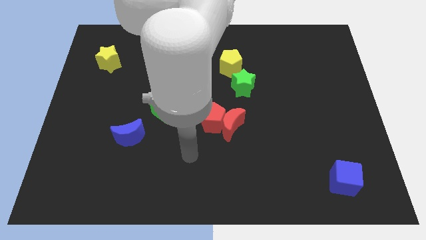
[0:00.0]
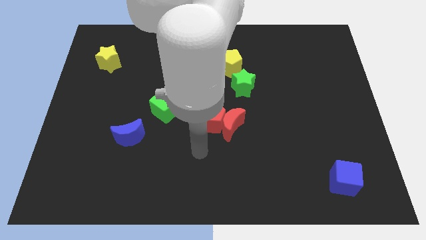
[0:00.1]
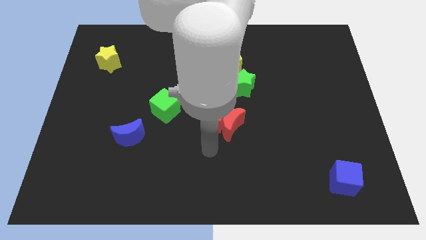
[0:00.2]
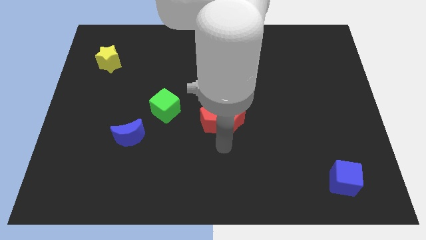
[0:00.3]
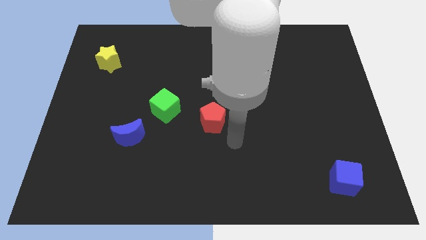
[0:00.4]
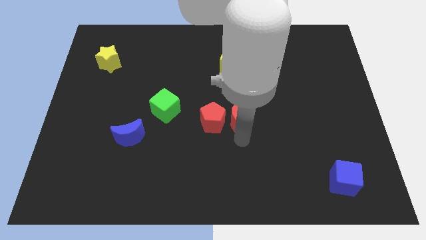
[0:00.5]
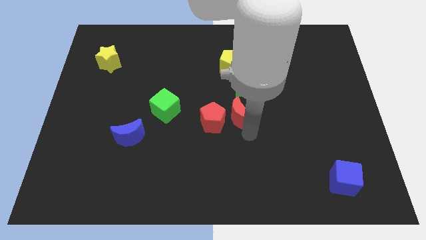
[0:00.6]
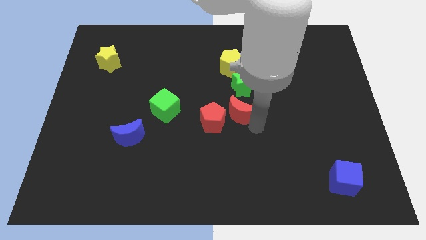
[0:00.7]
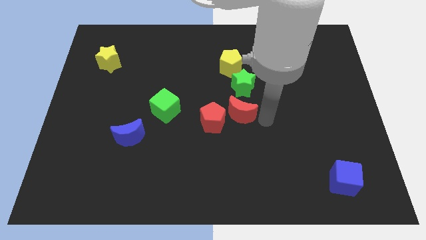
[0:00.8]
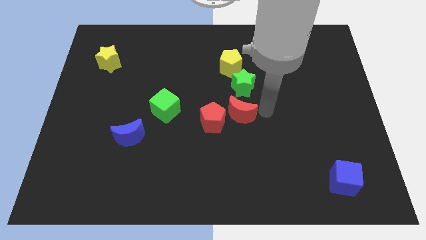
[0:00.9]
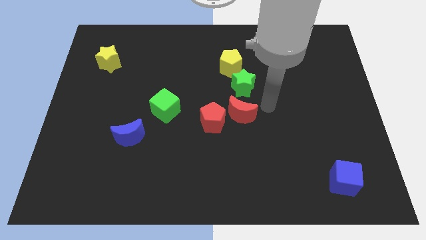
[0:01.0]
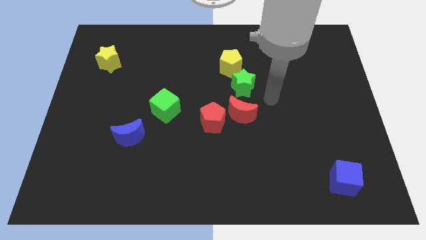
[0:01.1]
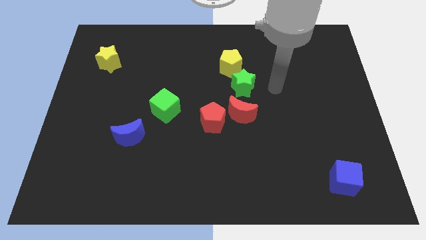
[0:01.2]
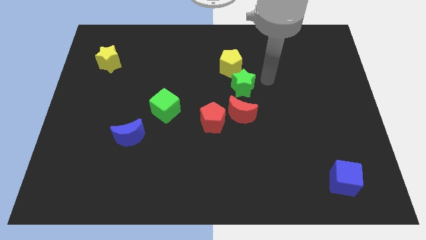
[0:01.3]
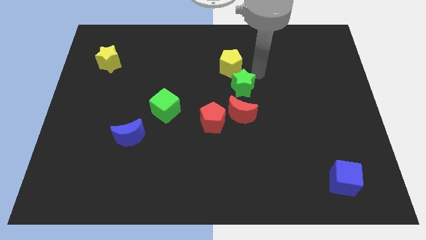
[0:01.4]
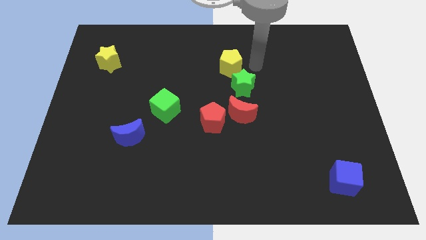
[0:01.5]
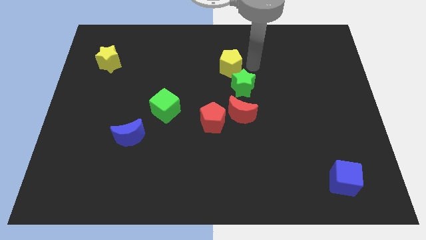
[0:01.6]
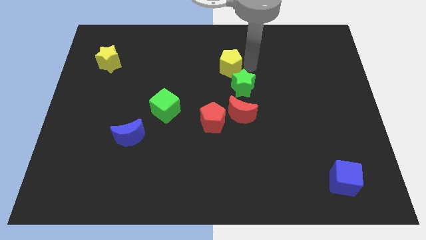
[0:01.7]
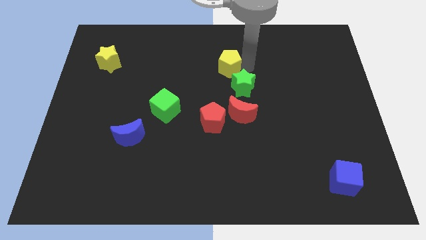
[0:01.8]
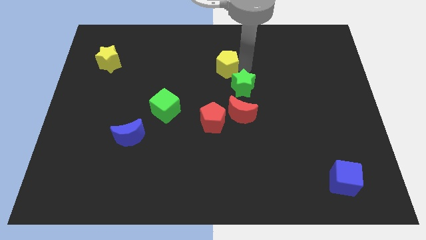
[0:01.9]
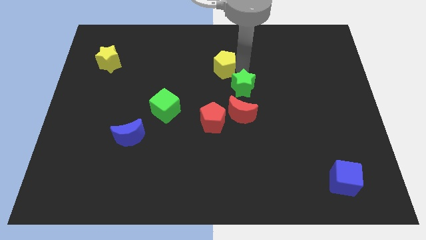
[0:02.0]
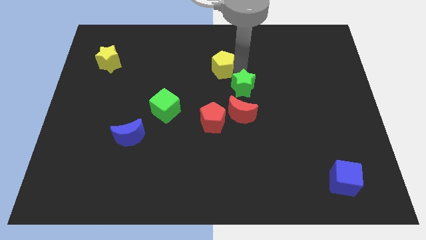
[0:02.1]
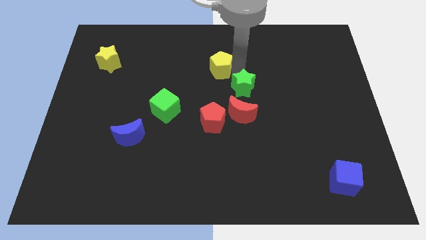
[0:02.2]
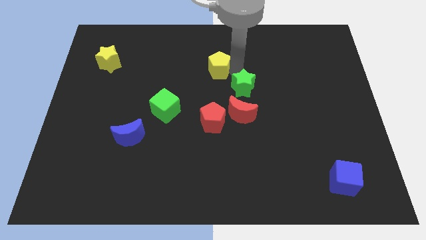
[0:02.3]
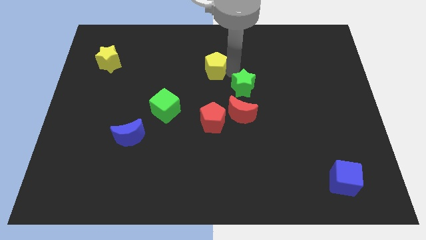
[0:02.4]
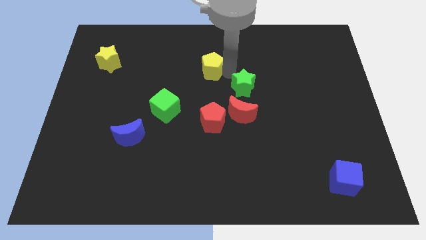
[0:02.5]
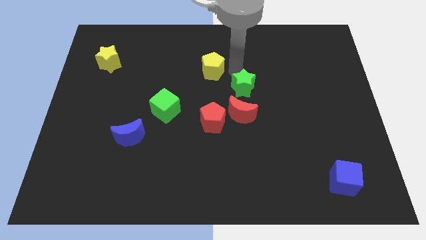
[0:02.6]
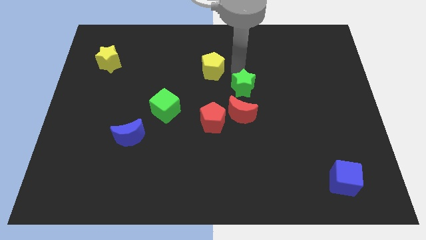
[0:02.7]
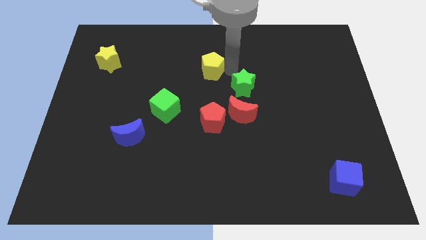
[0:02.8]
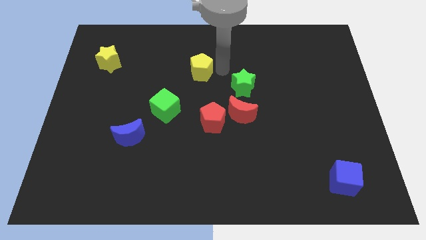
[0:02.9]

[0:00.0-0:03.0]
move the yellow pentagon to the left a little

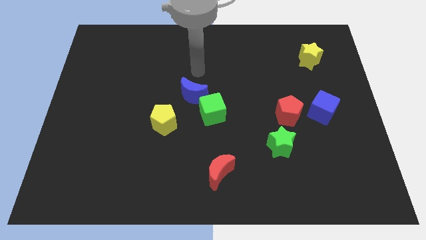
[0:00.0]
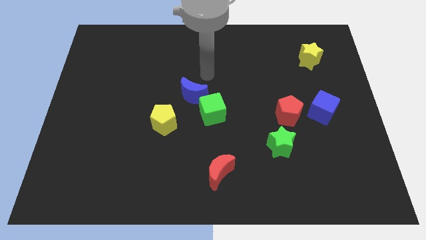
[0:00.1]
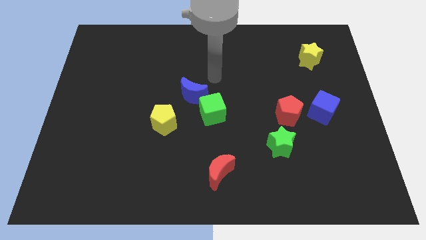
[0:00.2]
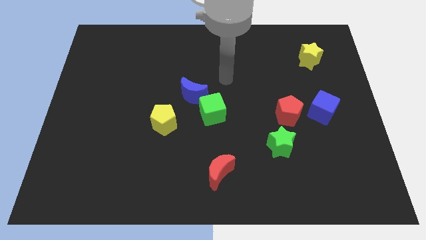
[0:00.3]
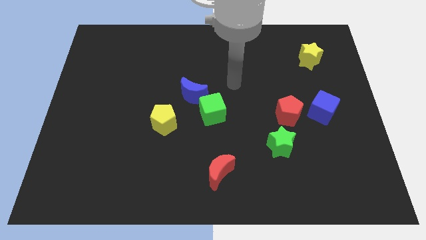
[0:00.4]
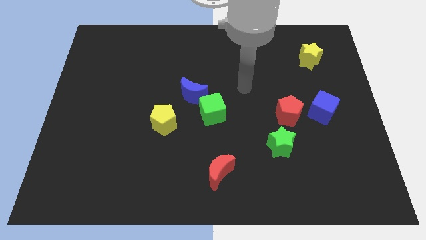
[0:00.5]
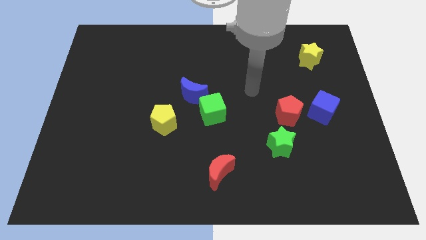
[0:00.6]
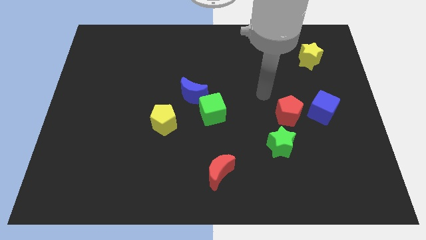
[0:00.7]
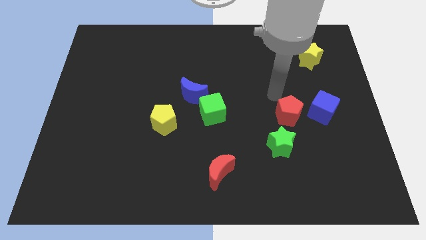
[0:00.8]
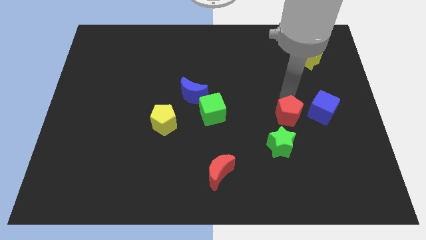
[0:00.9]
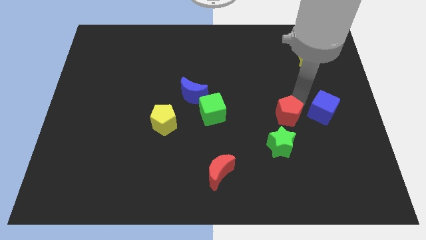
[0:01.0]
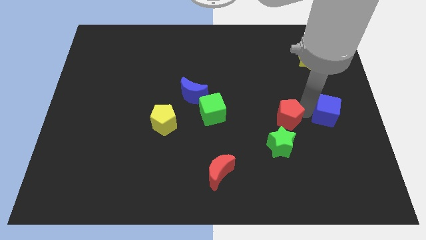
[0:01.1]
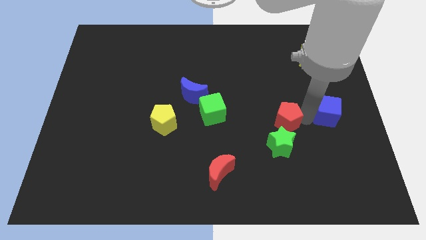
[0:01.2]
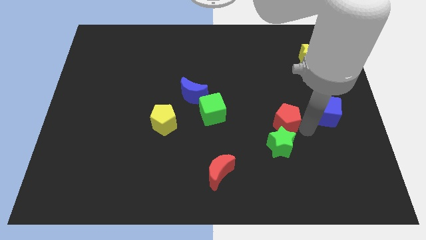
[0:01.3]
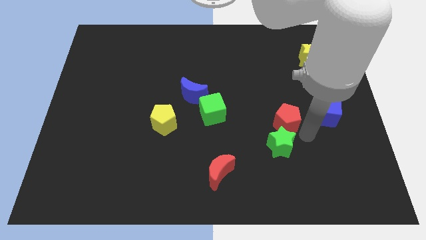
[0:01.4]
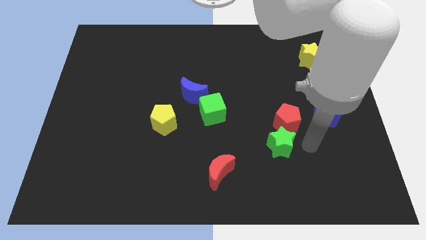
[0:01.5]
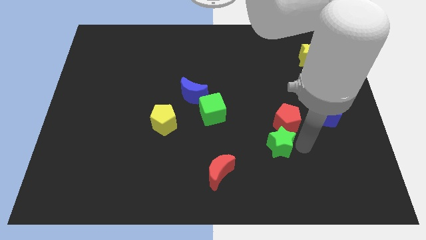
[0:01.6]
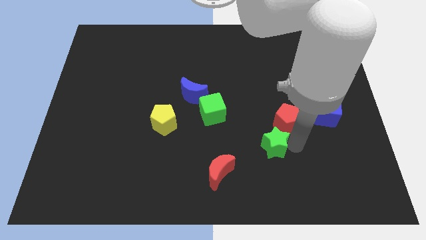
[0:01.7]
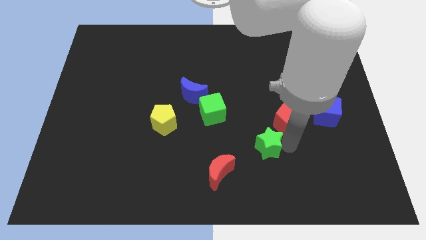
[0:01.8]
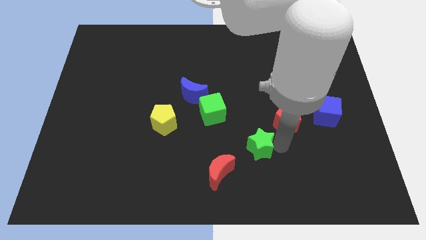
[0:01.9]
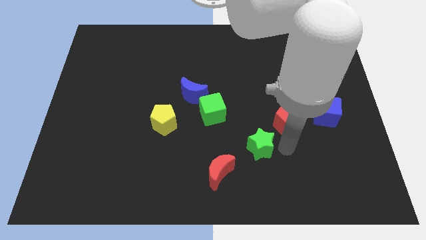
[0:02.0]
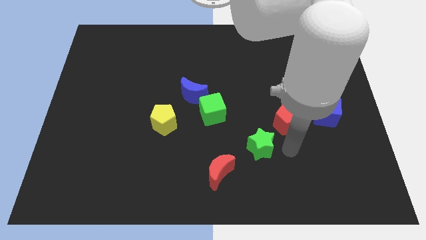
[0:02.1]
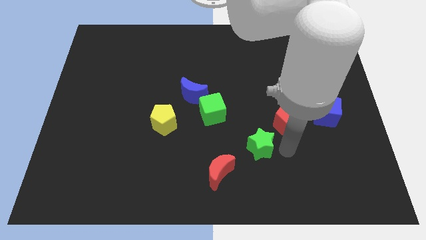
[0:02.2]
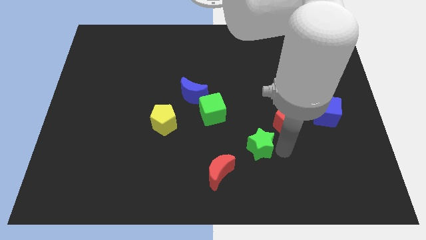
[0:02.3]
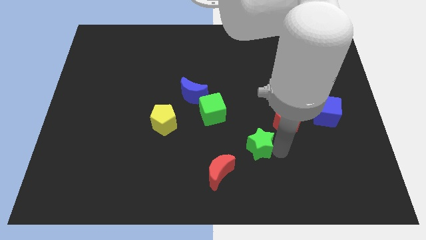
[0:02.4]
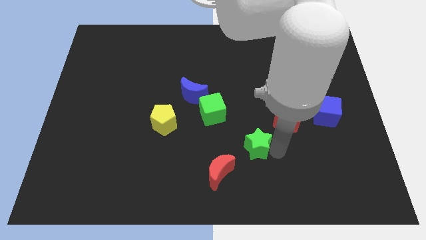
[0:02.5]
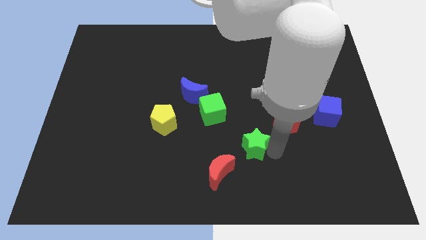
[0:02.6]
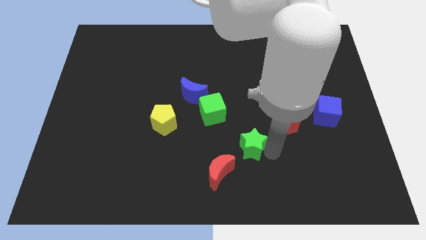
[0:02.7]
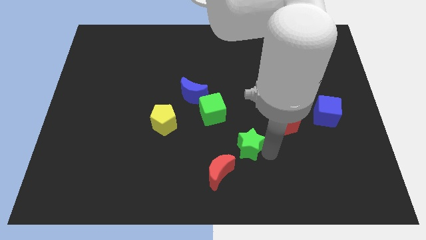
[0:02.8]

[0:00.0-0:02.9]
slightly push the green star to the left

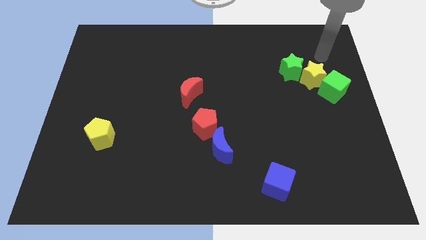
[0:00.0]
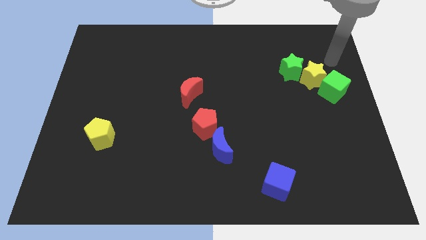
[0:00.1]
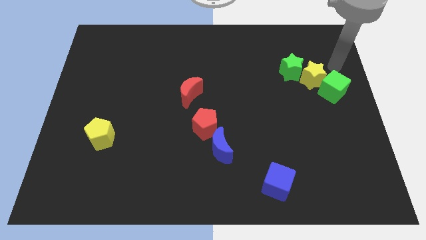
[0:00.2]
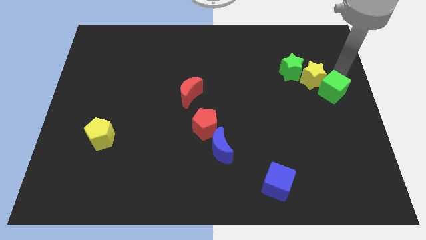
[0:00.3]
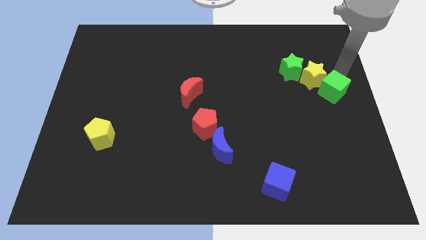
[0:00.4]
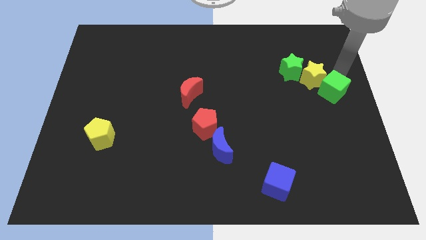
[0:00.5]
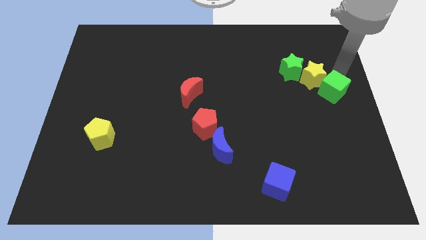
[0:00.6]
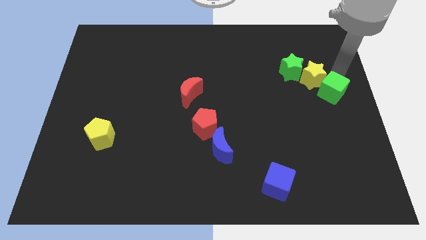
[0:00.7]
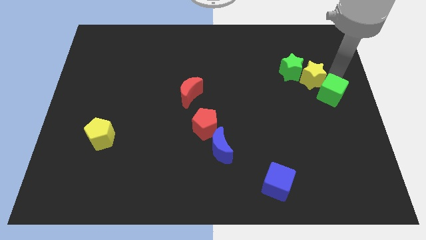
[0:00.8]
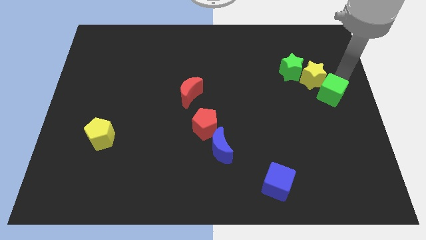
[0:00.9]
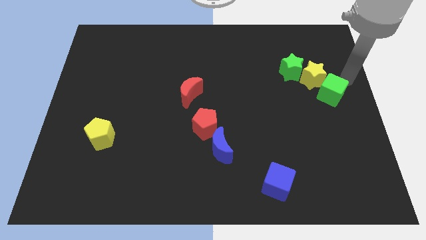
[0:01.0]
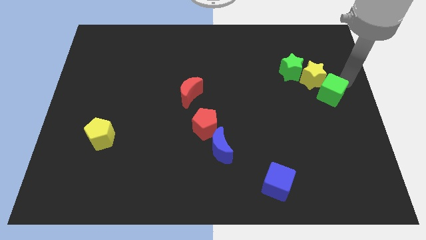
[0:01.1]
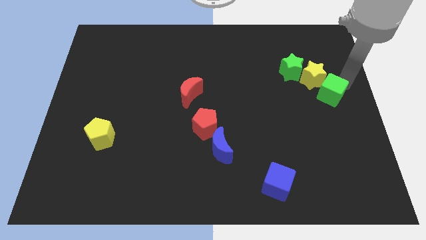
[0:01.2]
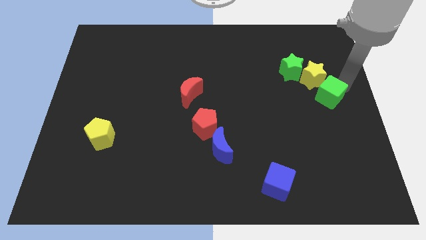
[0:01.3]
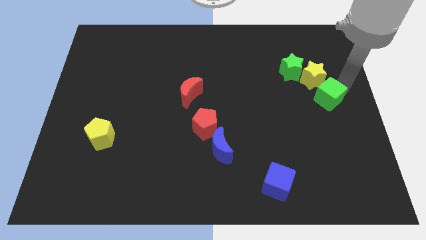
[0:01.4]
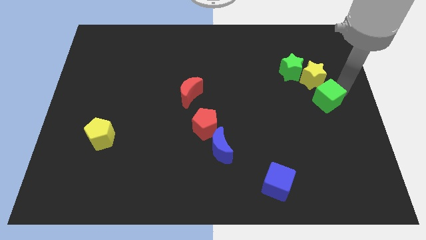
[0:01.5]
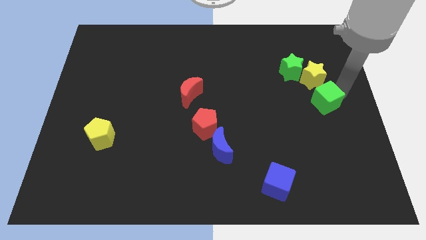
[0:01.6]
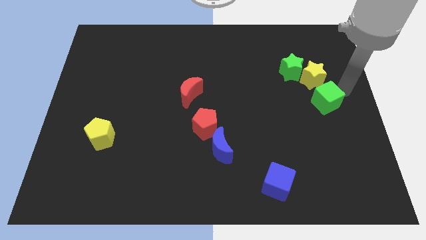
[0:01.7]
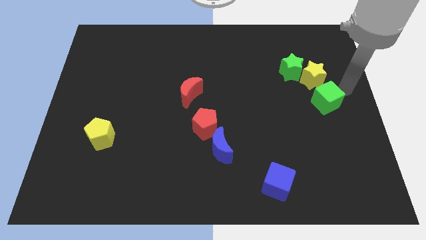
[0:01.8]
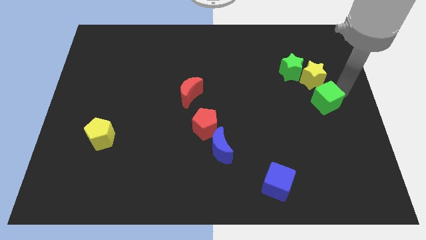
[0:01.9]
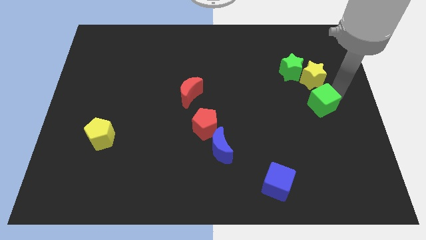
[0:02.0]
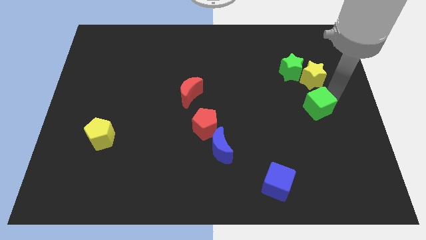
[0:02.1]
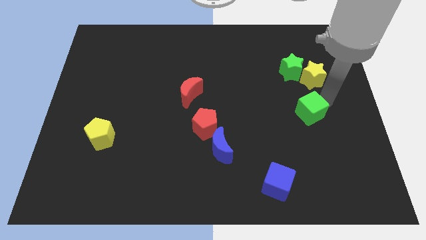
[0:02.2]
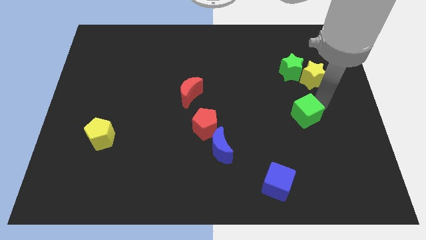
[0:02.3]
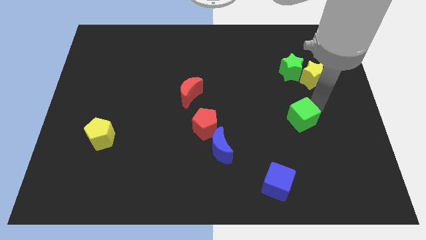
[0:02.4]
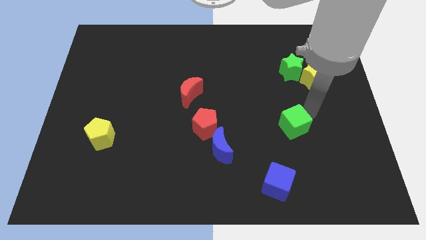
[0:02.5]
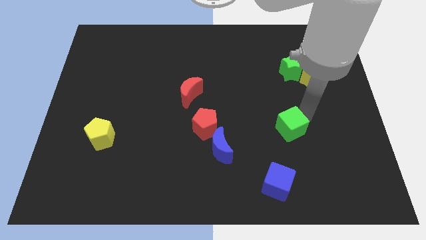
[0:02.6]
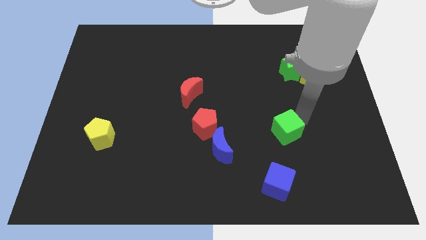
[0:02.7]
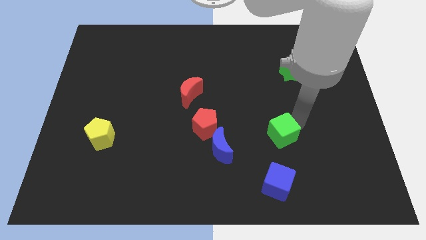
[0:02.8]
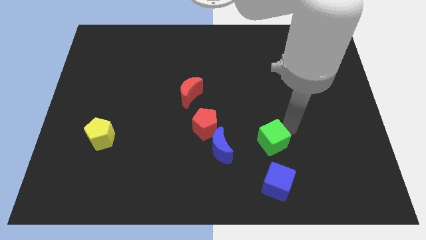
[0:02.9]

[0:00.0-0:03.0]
slide the green cube down and to the left diagonally
